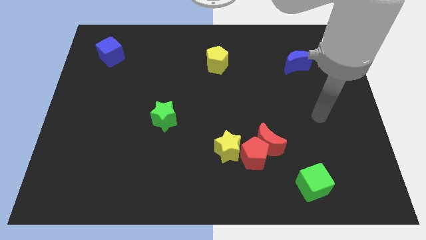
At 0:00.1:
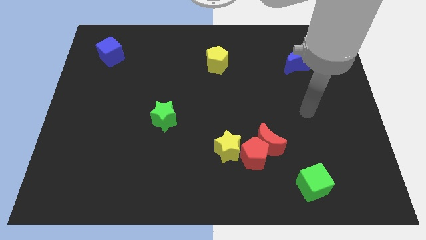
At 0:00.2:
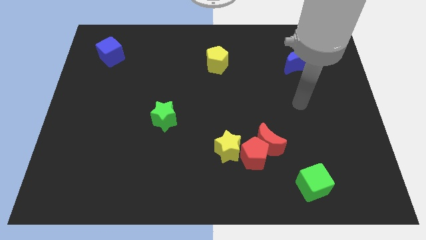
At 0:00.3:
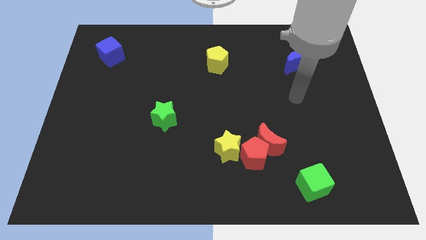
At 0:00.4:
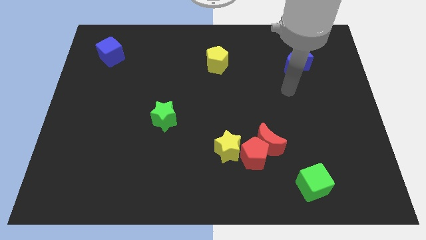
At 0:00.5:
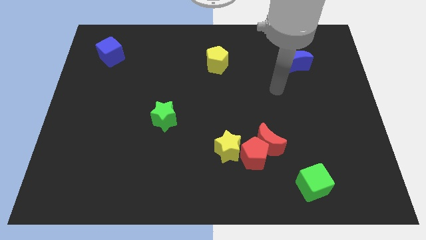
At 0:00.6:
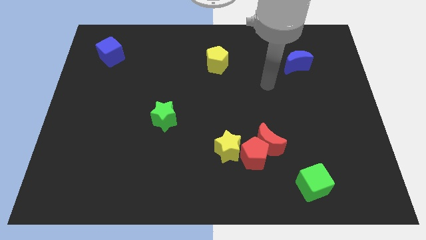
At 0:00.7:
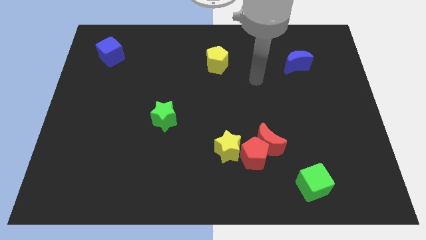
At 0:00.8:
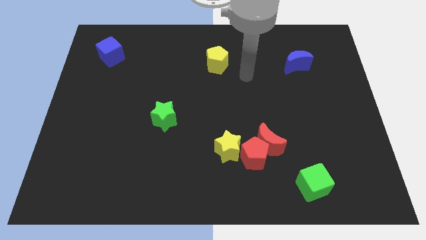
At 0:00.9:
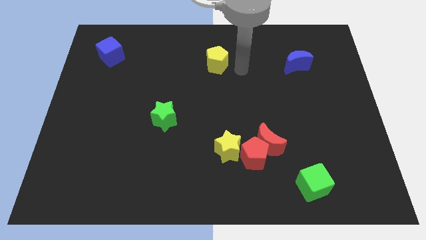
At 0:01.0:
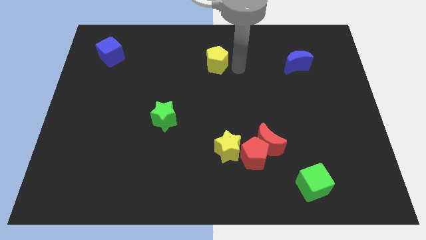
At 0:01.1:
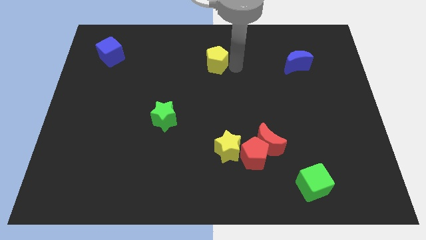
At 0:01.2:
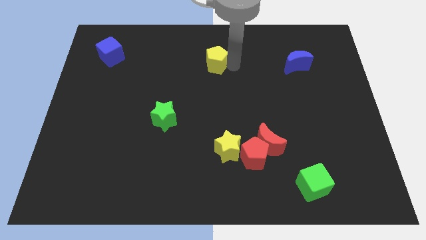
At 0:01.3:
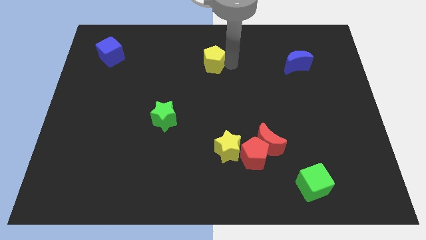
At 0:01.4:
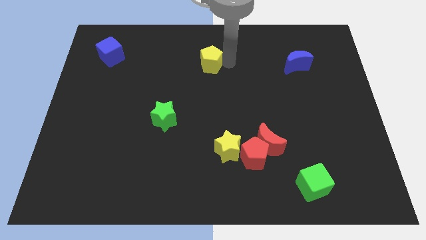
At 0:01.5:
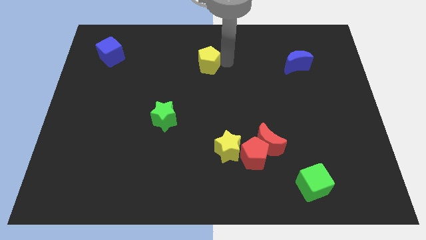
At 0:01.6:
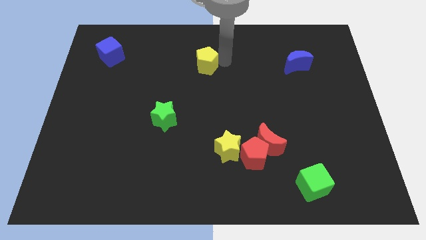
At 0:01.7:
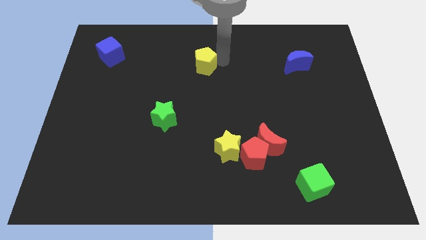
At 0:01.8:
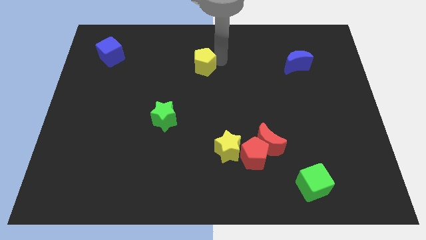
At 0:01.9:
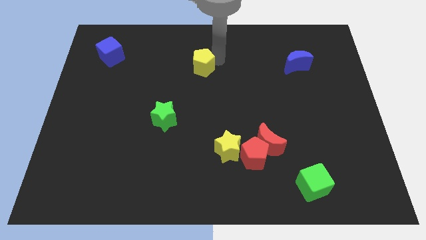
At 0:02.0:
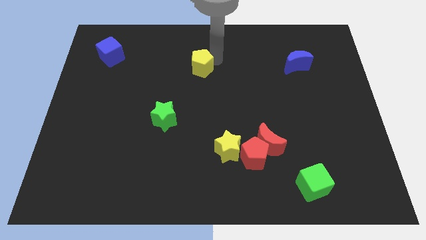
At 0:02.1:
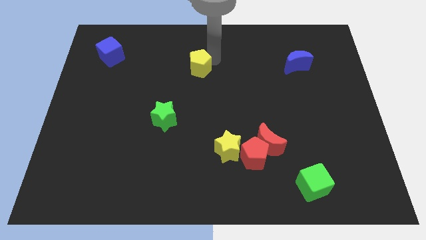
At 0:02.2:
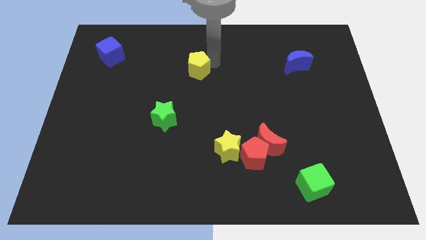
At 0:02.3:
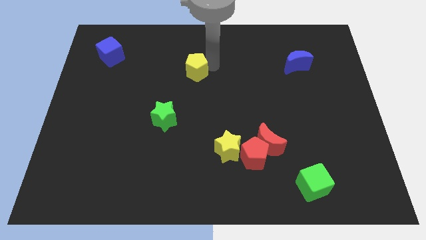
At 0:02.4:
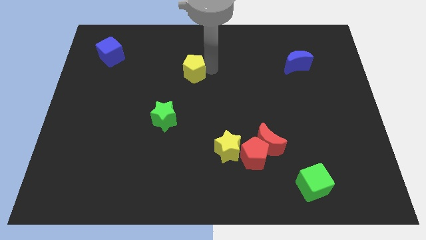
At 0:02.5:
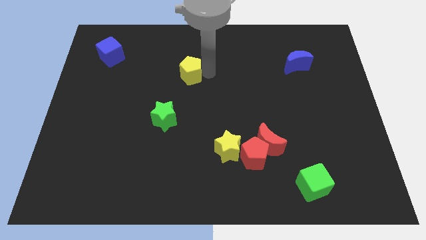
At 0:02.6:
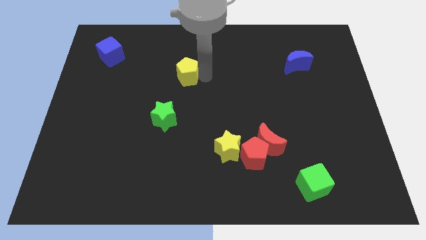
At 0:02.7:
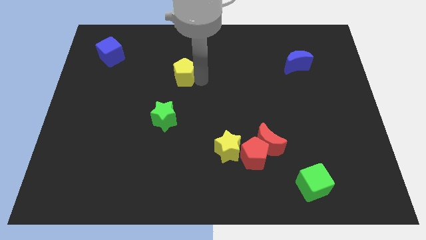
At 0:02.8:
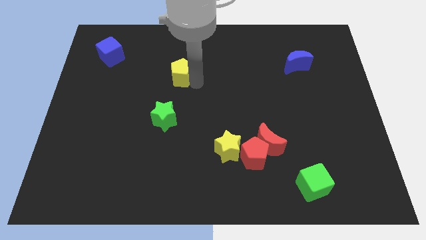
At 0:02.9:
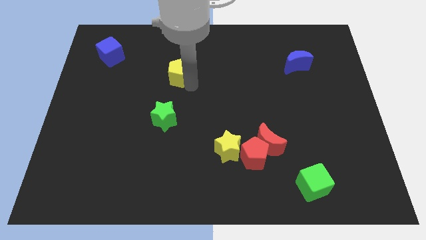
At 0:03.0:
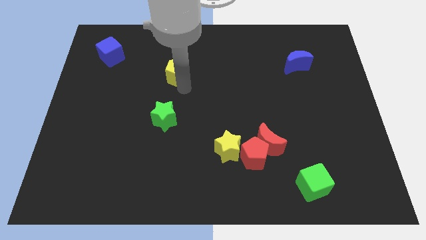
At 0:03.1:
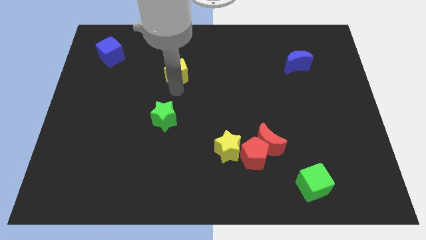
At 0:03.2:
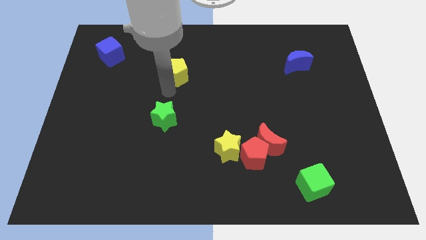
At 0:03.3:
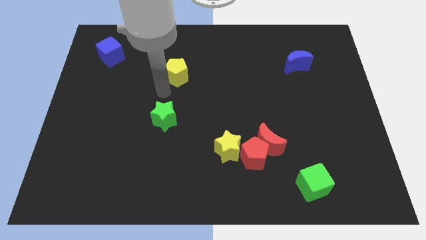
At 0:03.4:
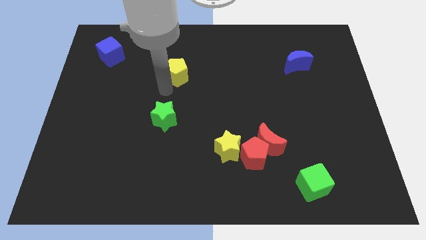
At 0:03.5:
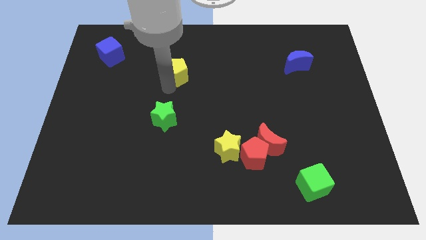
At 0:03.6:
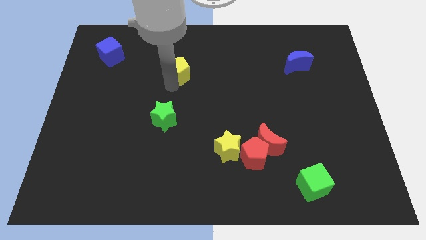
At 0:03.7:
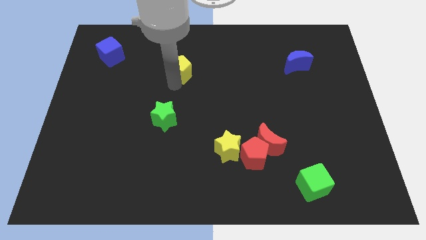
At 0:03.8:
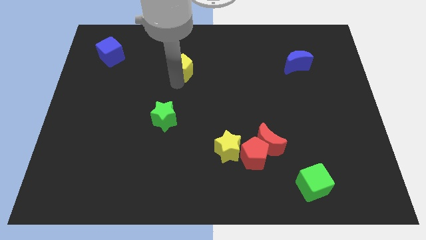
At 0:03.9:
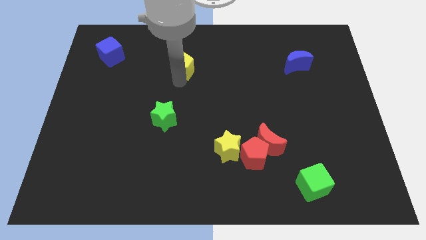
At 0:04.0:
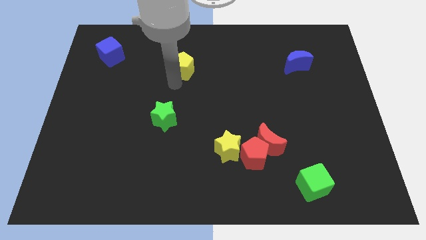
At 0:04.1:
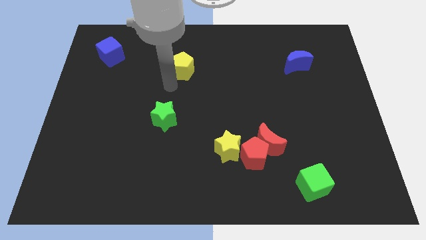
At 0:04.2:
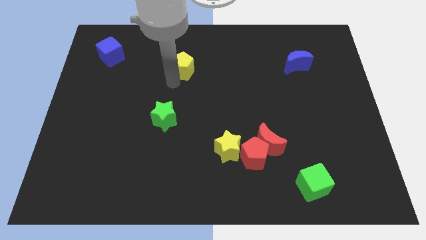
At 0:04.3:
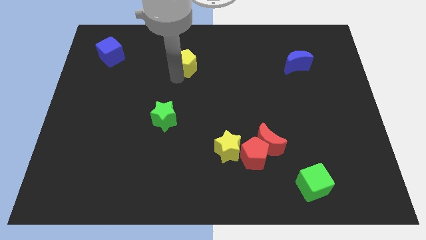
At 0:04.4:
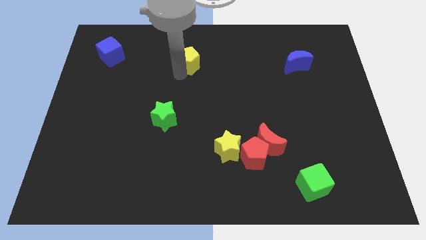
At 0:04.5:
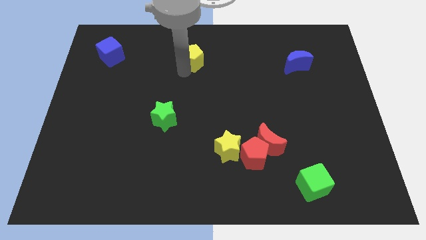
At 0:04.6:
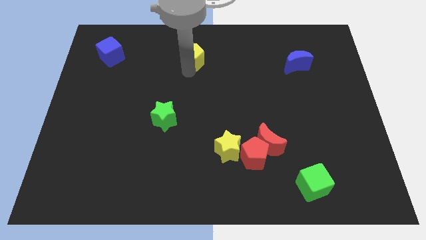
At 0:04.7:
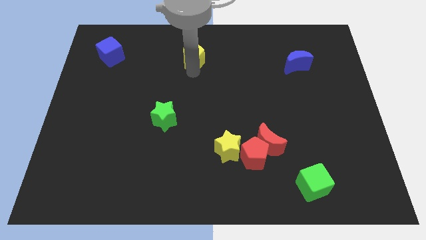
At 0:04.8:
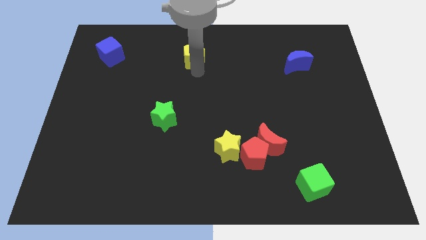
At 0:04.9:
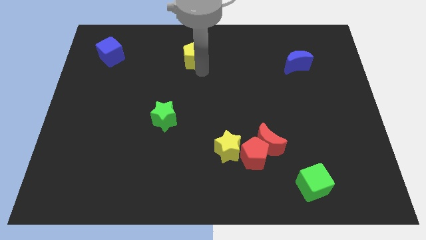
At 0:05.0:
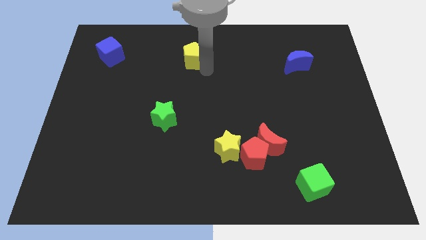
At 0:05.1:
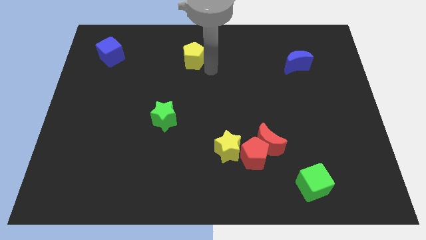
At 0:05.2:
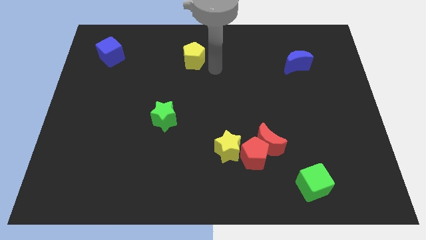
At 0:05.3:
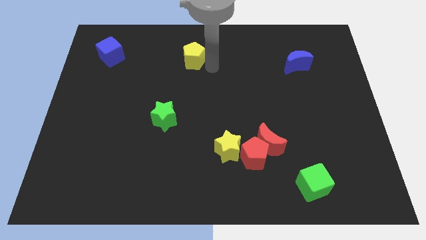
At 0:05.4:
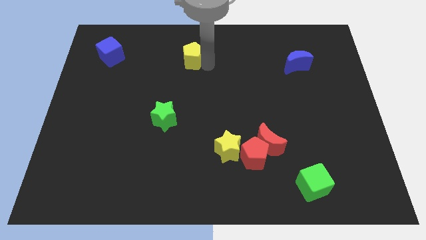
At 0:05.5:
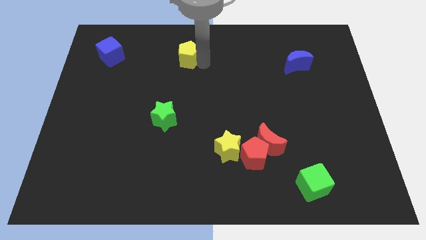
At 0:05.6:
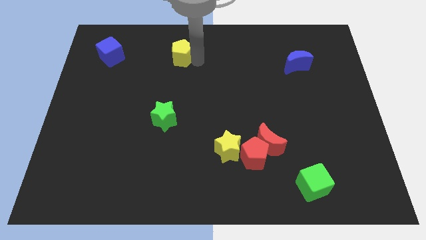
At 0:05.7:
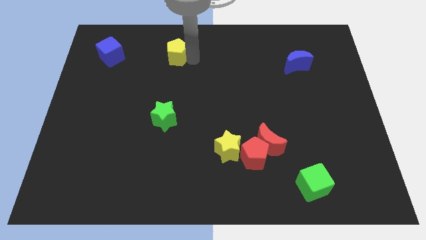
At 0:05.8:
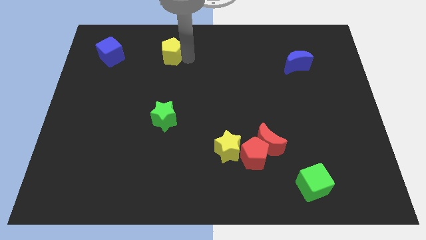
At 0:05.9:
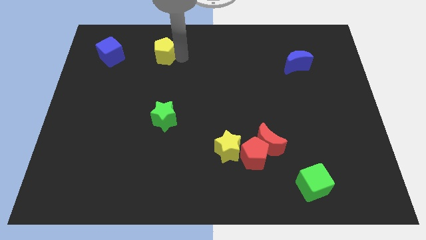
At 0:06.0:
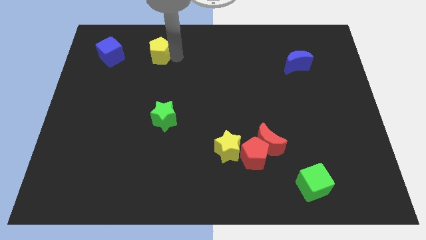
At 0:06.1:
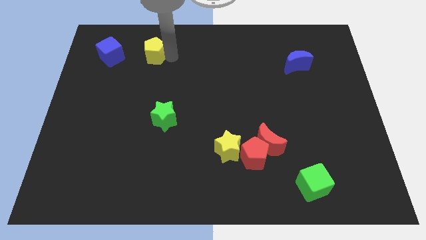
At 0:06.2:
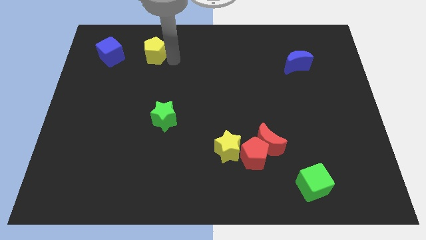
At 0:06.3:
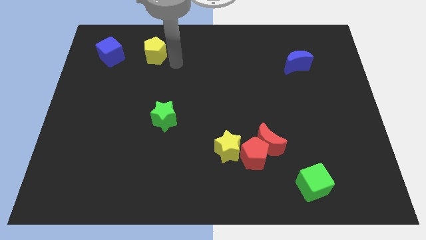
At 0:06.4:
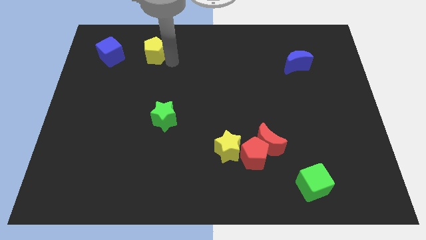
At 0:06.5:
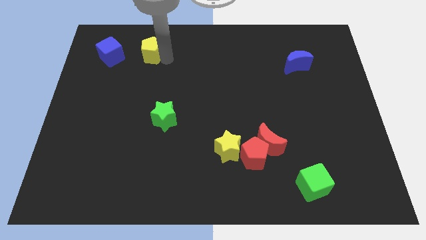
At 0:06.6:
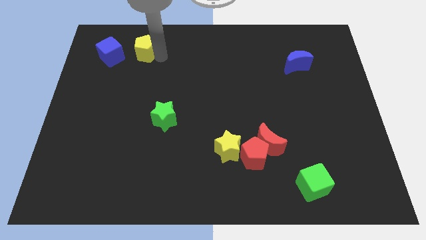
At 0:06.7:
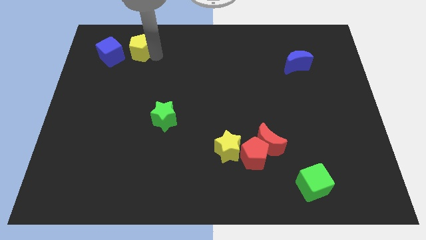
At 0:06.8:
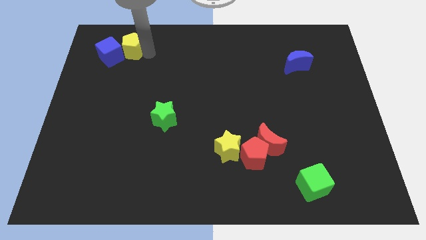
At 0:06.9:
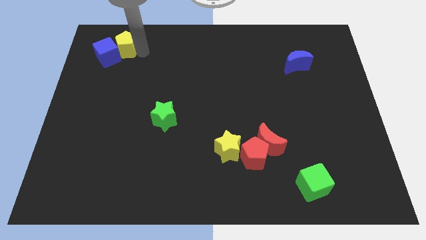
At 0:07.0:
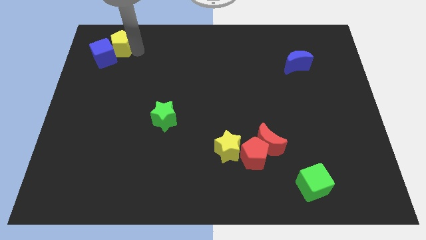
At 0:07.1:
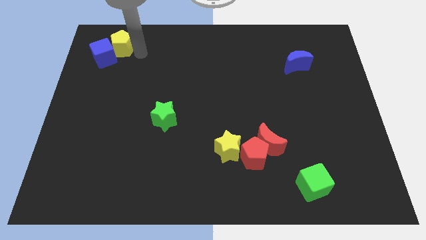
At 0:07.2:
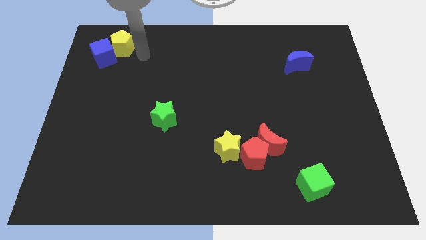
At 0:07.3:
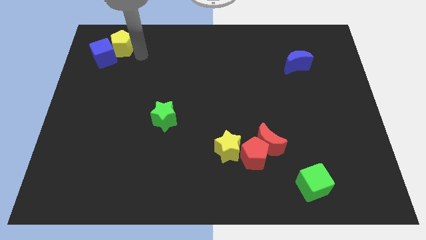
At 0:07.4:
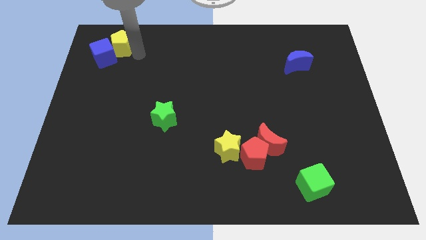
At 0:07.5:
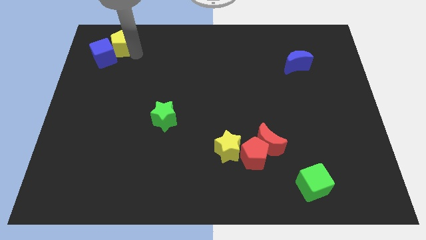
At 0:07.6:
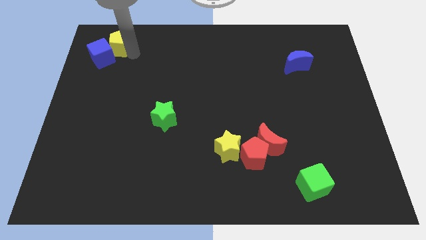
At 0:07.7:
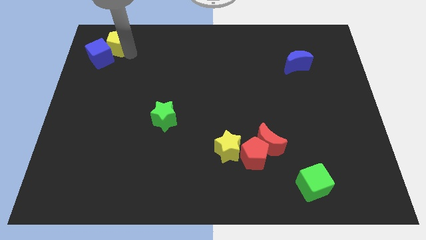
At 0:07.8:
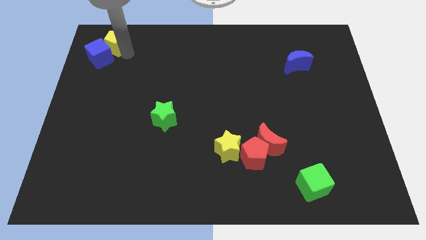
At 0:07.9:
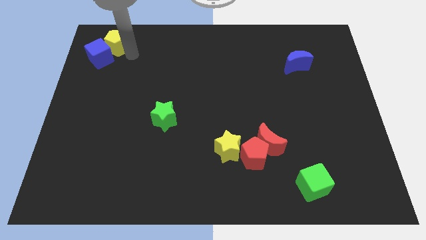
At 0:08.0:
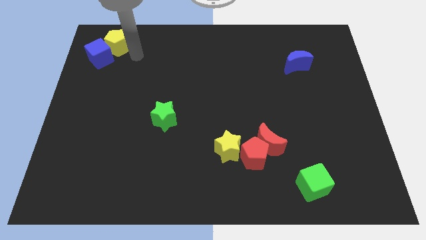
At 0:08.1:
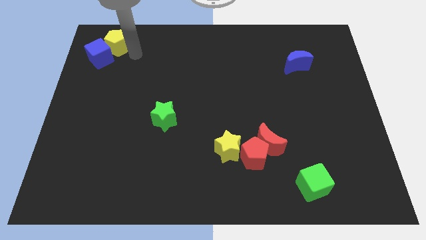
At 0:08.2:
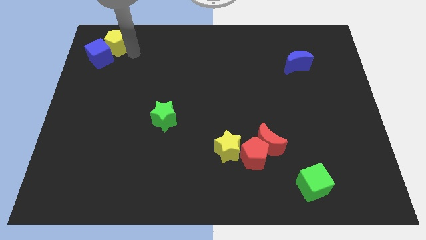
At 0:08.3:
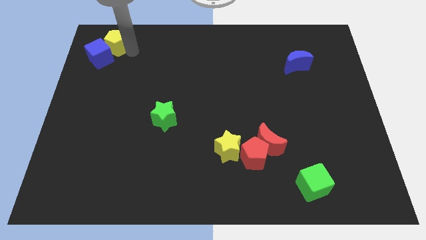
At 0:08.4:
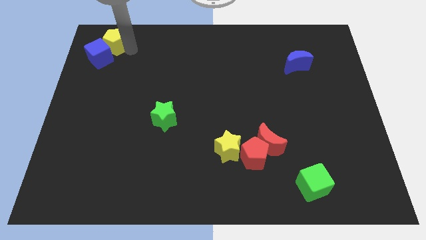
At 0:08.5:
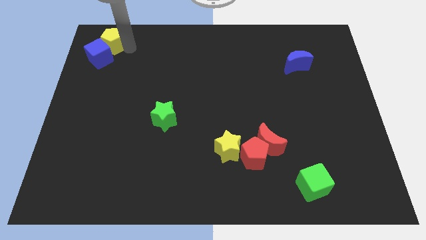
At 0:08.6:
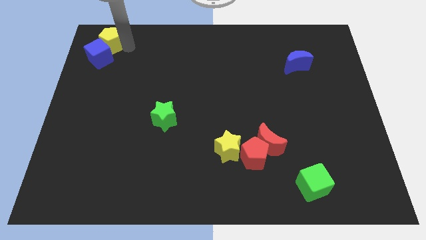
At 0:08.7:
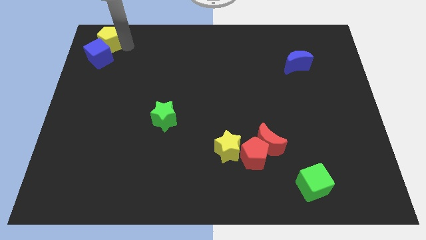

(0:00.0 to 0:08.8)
move the yellow pentagon to the top left
